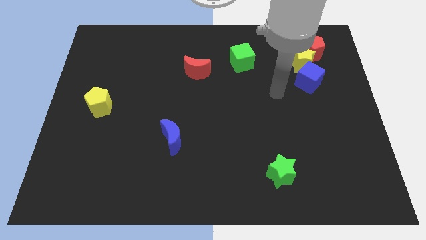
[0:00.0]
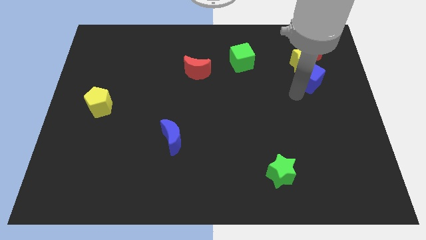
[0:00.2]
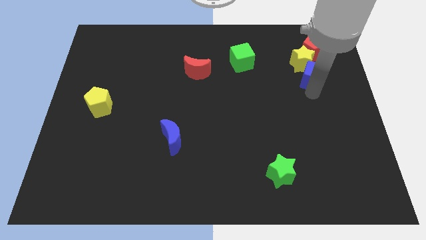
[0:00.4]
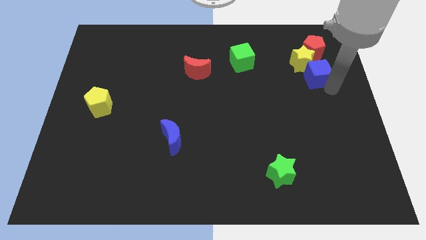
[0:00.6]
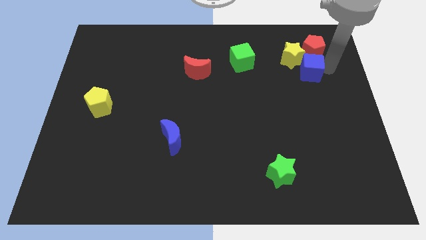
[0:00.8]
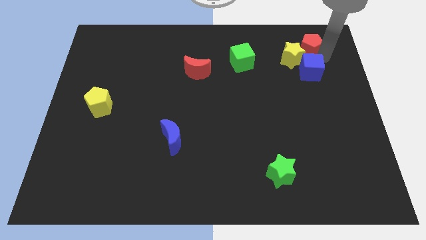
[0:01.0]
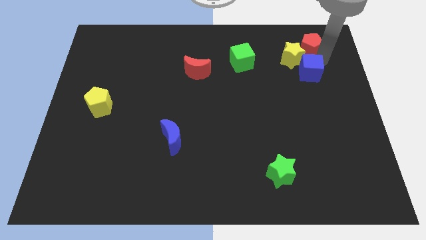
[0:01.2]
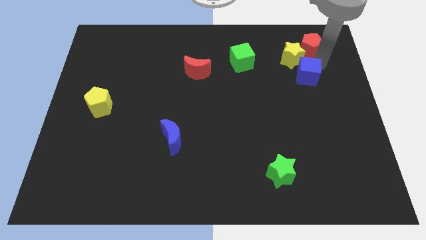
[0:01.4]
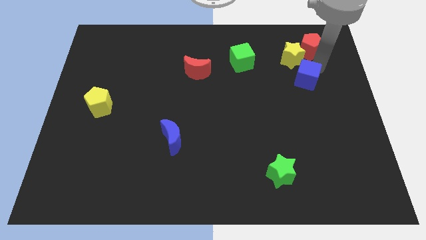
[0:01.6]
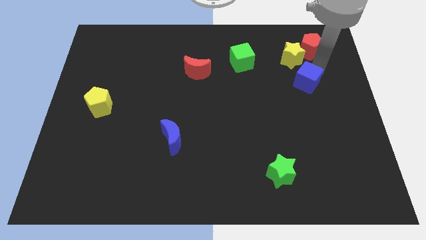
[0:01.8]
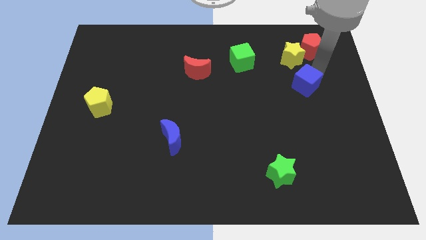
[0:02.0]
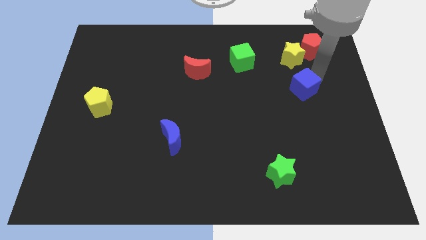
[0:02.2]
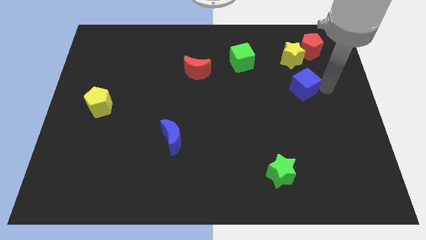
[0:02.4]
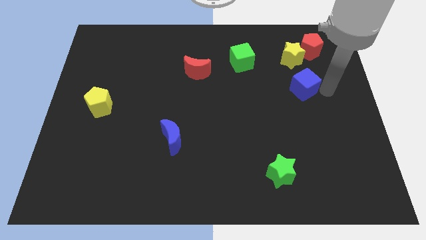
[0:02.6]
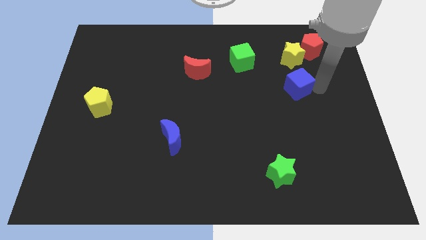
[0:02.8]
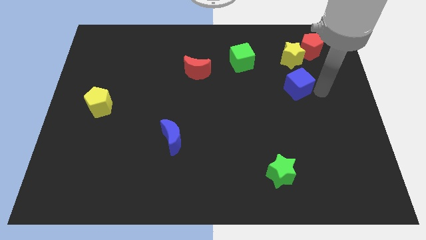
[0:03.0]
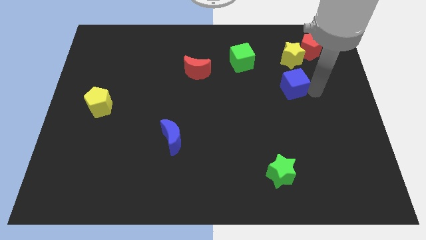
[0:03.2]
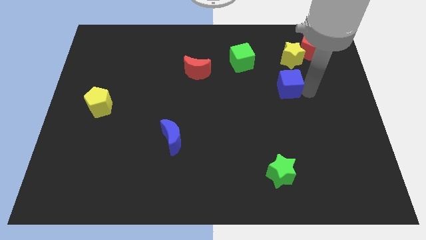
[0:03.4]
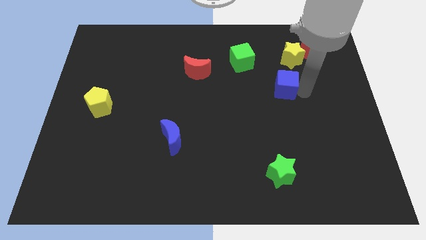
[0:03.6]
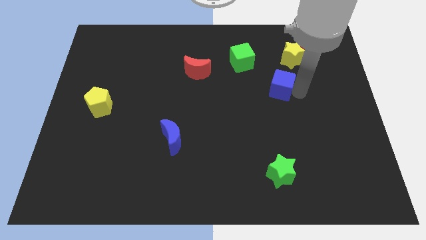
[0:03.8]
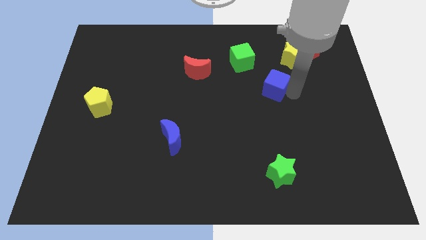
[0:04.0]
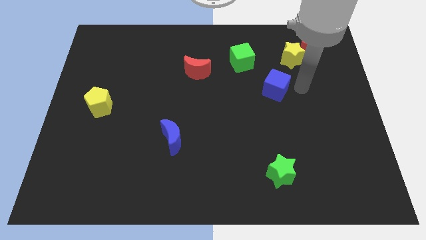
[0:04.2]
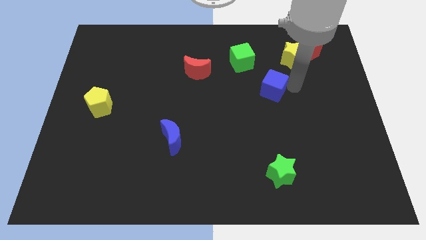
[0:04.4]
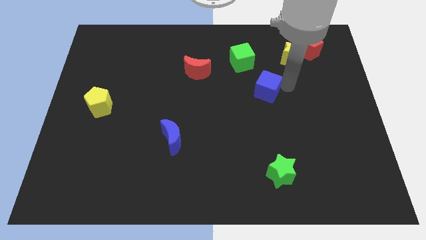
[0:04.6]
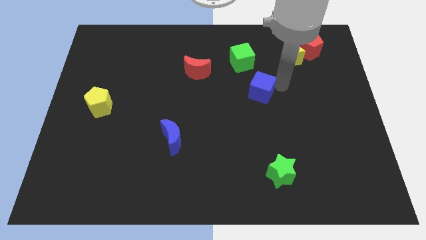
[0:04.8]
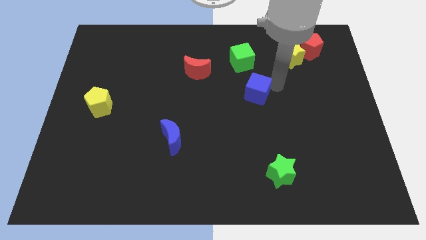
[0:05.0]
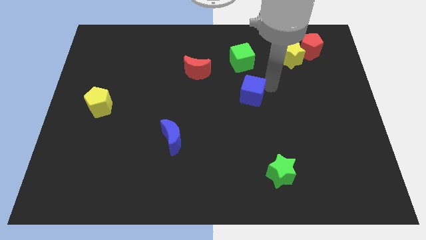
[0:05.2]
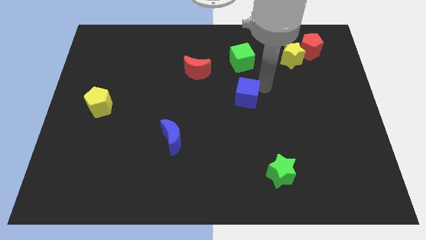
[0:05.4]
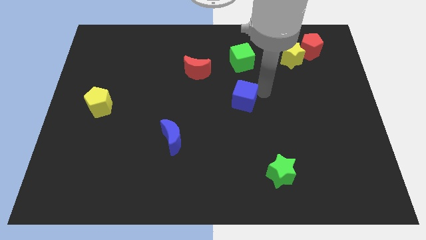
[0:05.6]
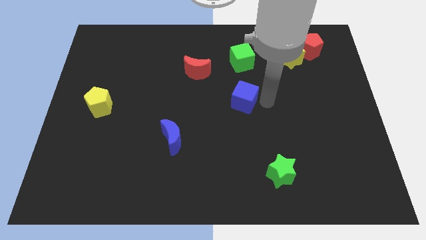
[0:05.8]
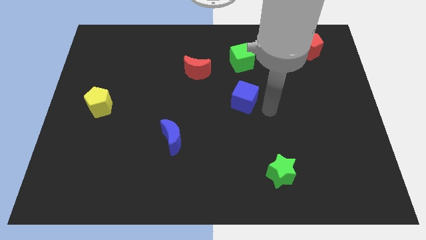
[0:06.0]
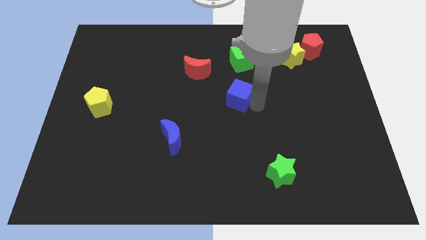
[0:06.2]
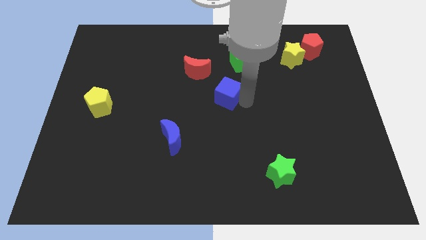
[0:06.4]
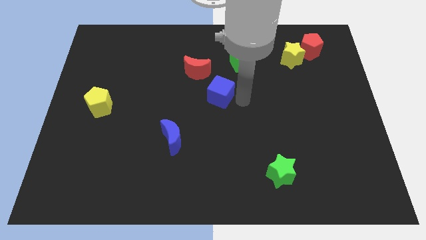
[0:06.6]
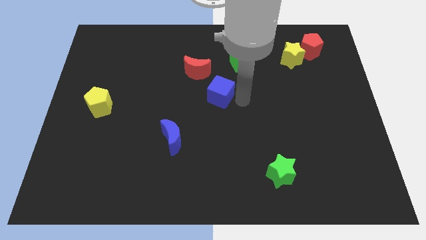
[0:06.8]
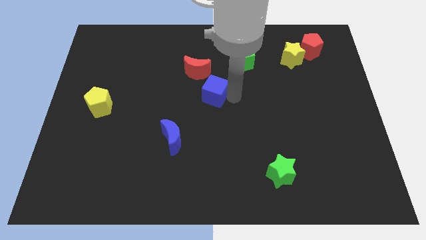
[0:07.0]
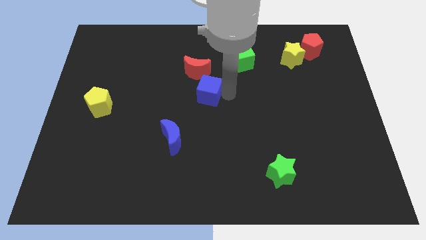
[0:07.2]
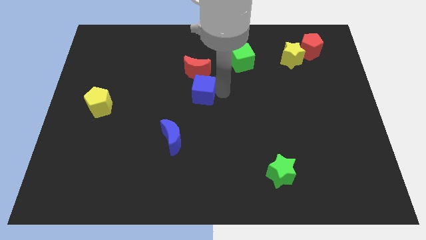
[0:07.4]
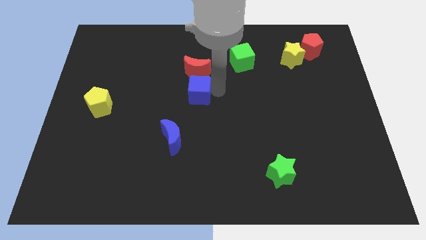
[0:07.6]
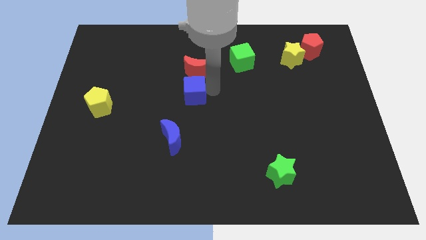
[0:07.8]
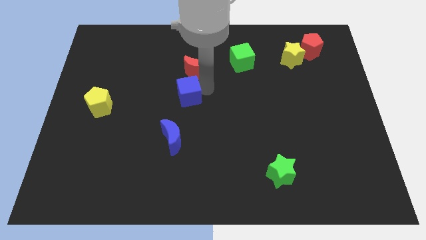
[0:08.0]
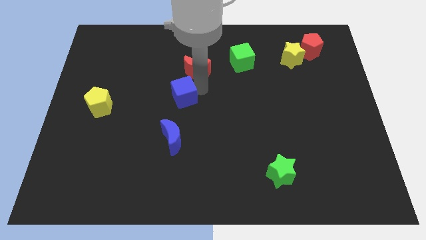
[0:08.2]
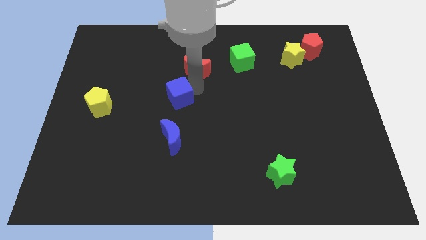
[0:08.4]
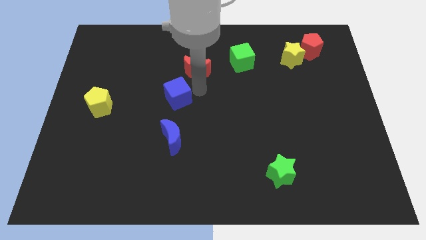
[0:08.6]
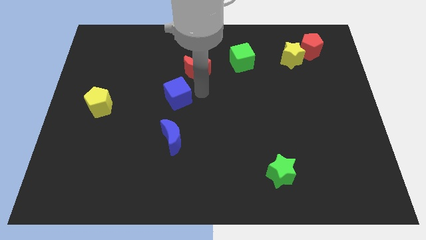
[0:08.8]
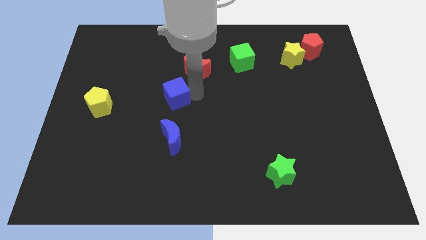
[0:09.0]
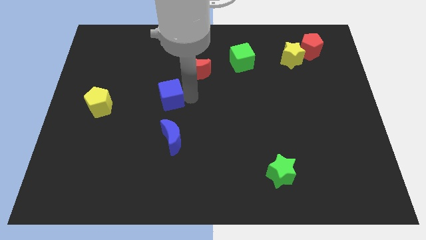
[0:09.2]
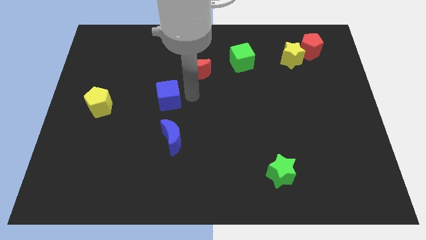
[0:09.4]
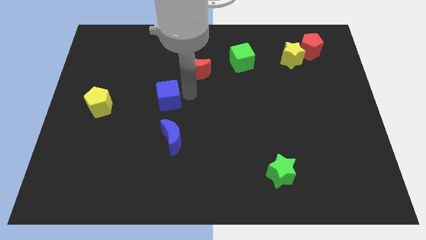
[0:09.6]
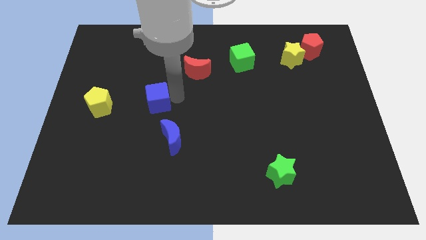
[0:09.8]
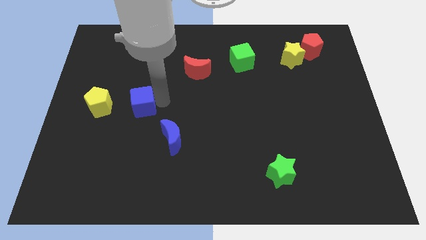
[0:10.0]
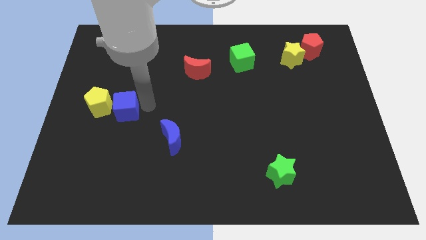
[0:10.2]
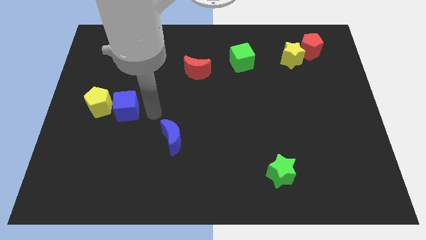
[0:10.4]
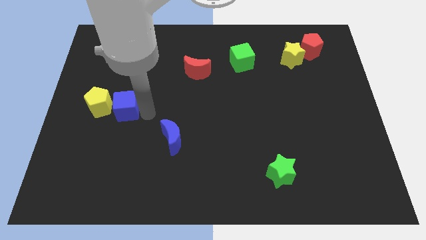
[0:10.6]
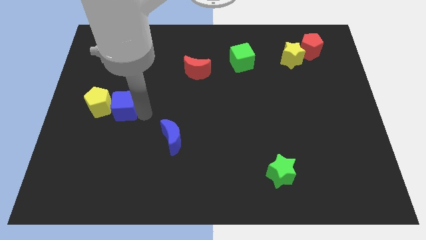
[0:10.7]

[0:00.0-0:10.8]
put the blue cube towards the yellow pentagon

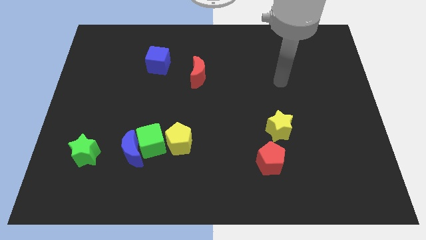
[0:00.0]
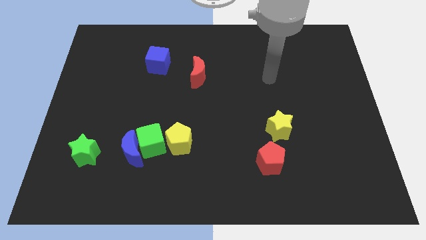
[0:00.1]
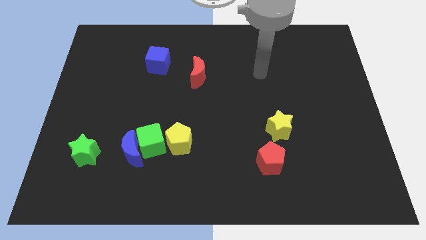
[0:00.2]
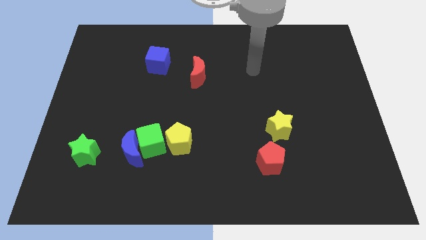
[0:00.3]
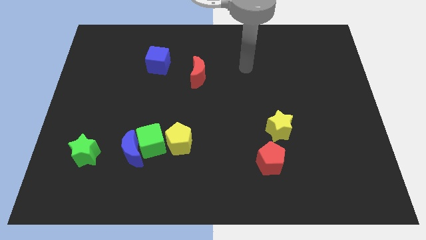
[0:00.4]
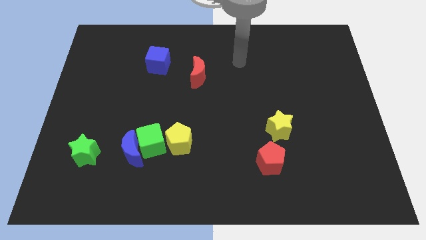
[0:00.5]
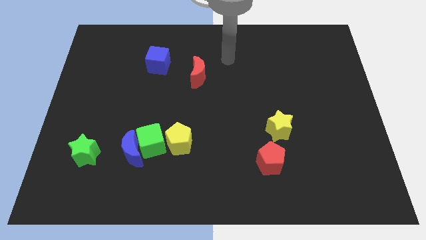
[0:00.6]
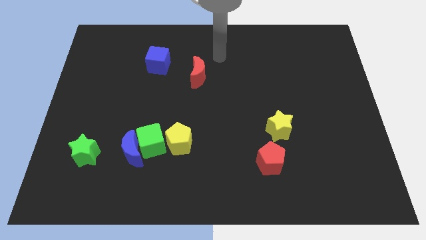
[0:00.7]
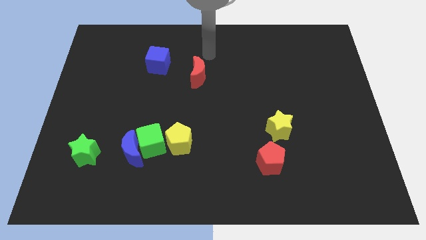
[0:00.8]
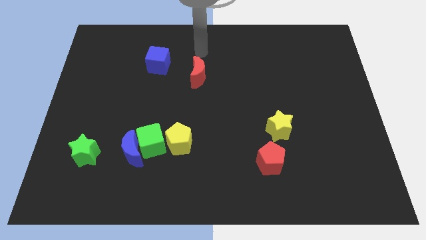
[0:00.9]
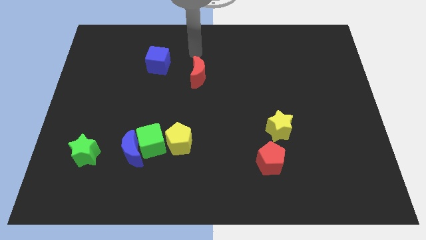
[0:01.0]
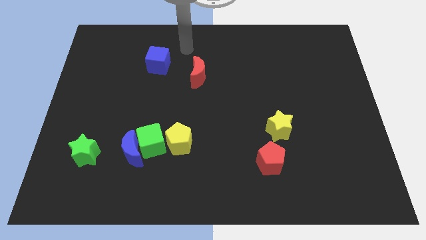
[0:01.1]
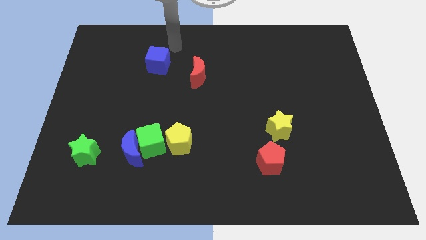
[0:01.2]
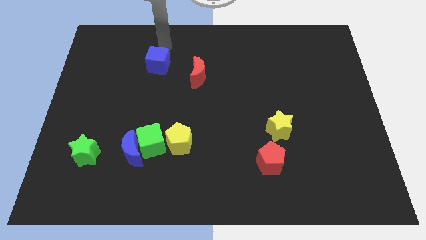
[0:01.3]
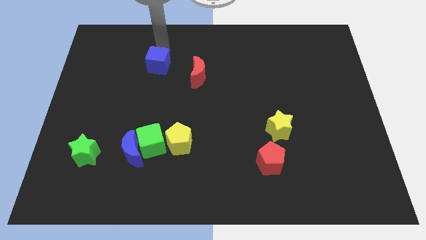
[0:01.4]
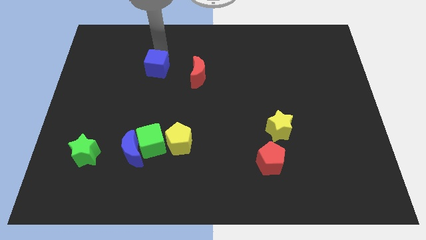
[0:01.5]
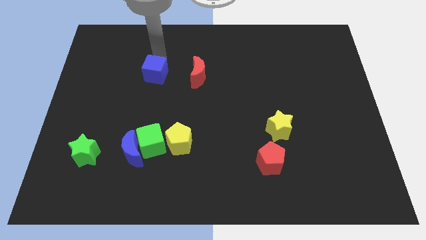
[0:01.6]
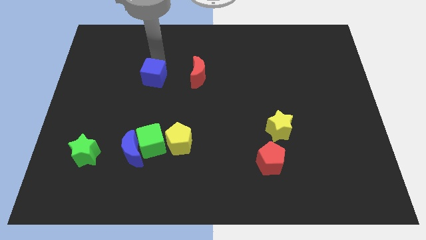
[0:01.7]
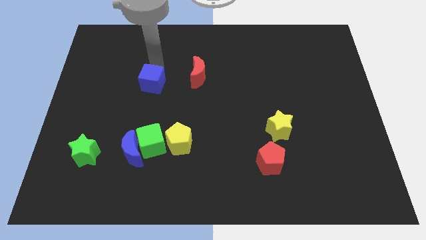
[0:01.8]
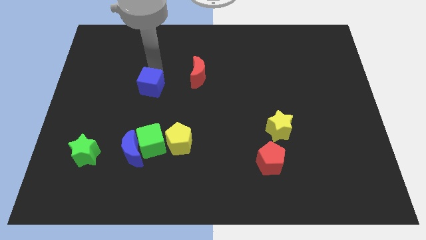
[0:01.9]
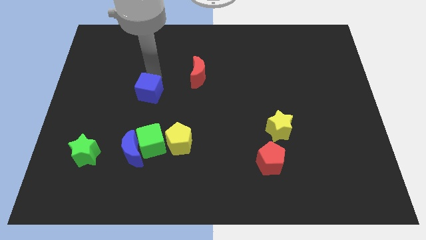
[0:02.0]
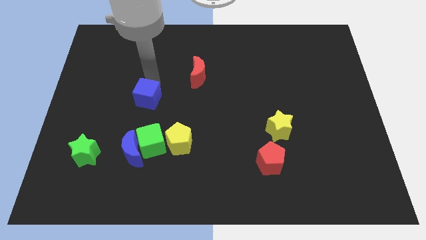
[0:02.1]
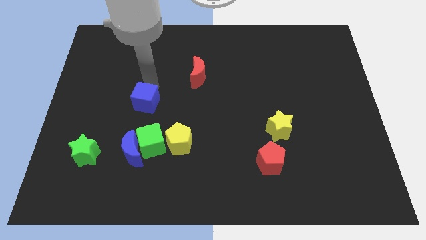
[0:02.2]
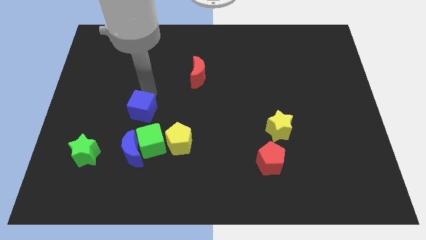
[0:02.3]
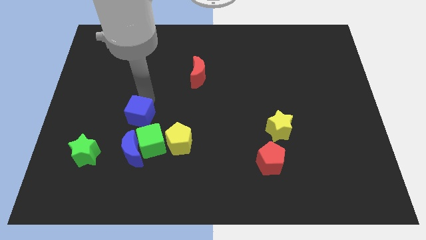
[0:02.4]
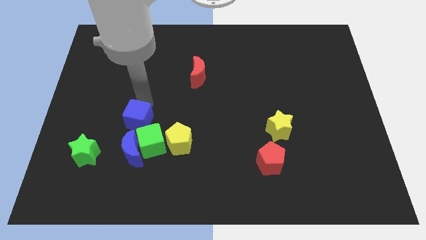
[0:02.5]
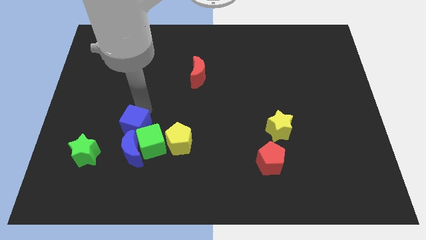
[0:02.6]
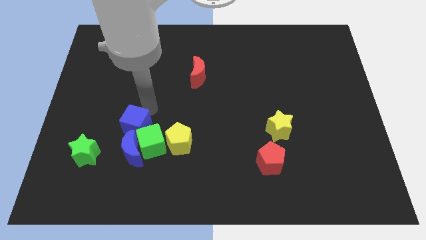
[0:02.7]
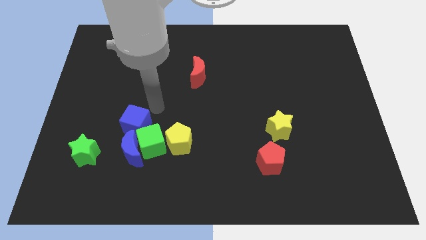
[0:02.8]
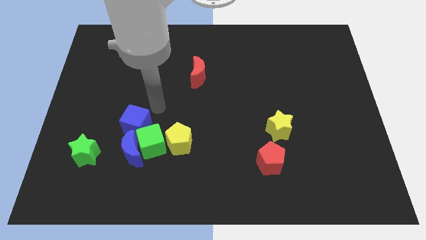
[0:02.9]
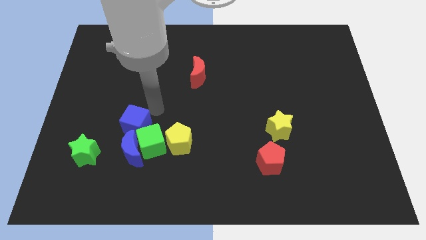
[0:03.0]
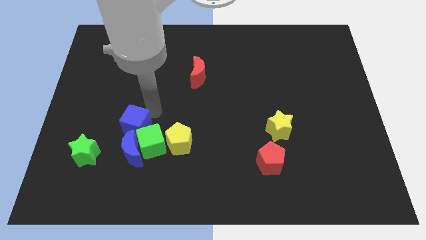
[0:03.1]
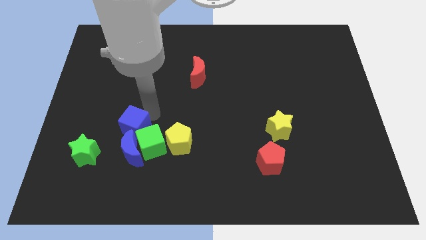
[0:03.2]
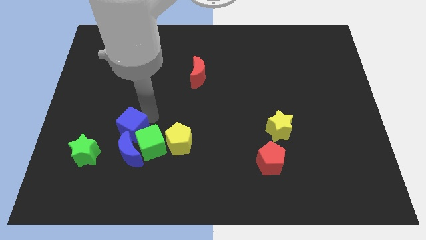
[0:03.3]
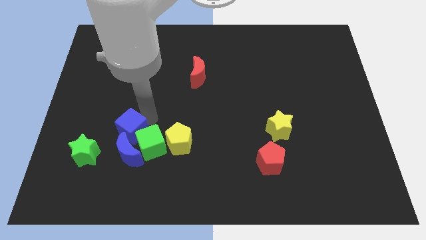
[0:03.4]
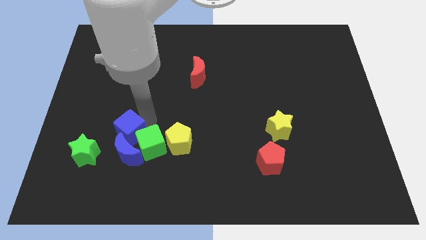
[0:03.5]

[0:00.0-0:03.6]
slide the blue cube close to the blue moon
